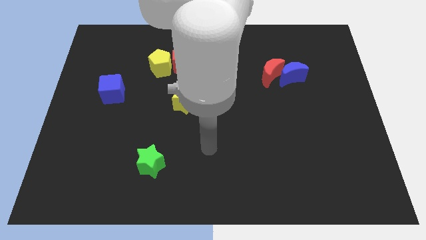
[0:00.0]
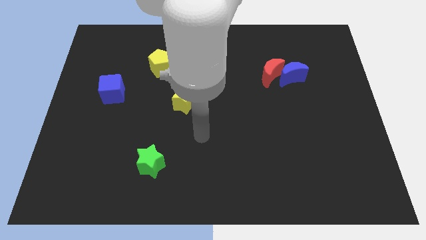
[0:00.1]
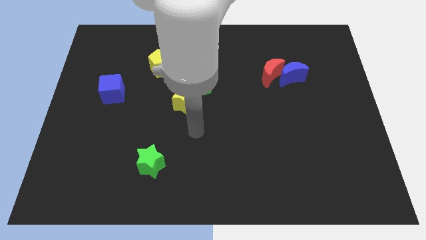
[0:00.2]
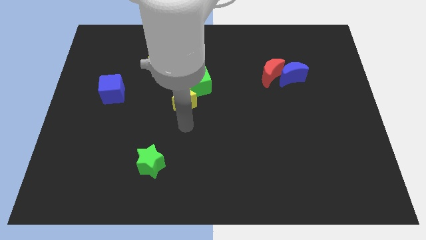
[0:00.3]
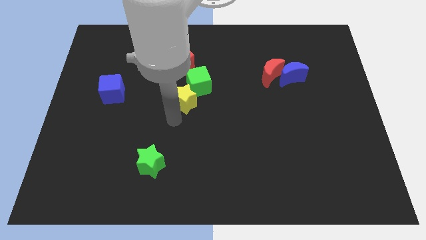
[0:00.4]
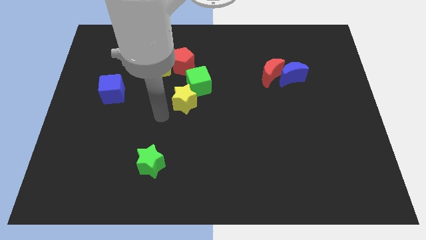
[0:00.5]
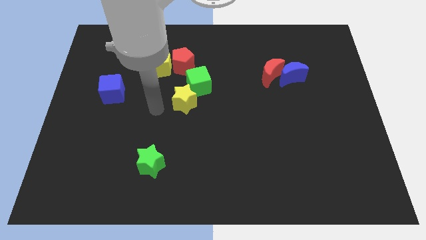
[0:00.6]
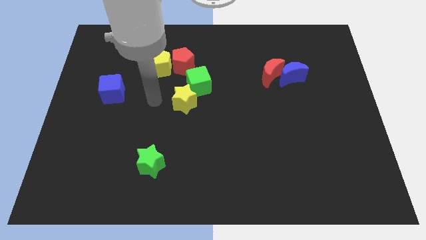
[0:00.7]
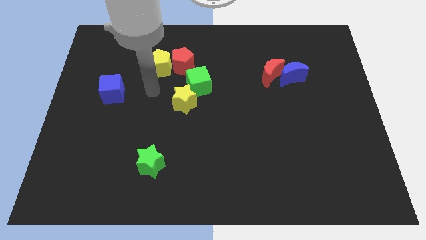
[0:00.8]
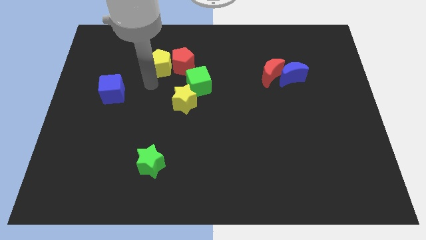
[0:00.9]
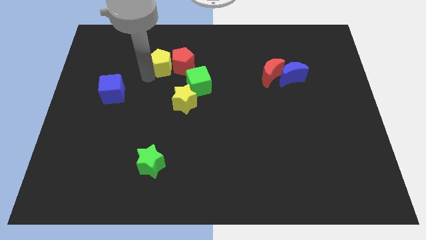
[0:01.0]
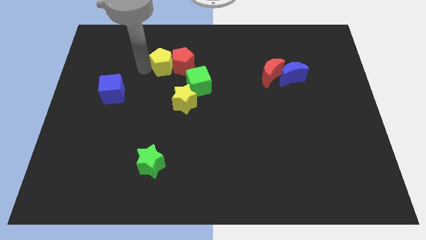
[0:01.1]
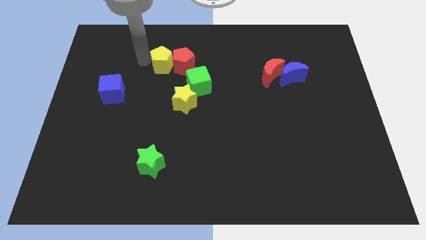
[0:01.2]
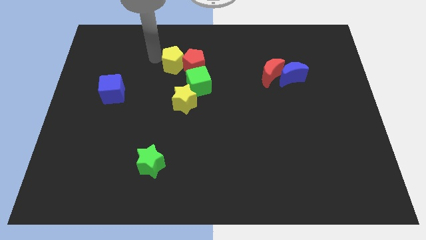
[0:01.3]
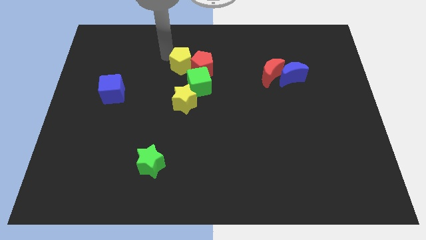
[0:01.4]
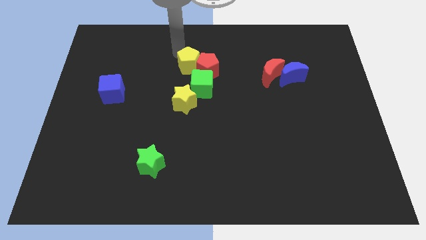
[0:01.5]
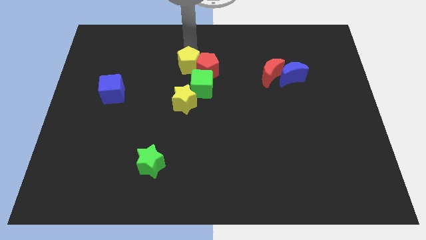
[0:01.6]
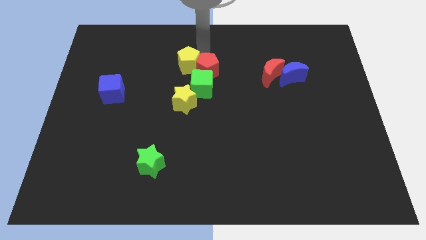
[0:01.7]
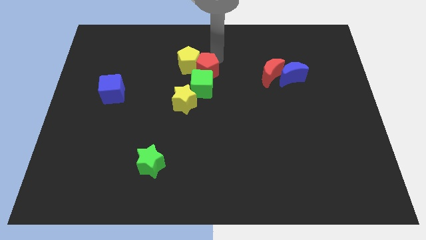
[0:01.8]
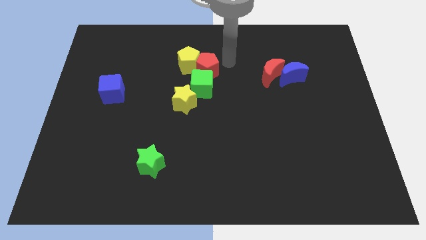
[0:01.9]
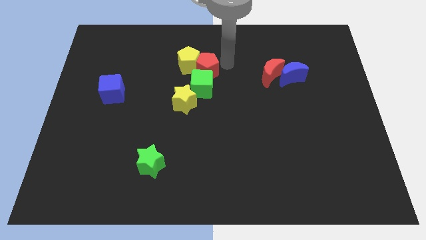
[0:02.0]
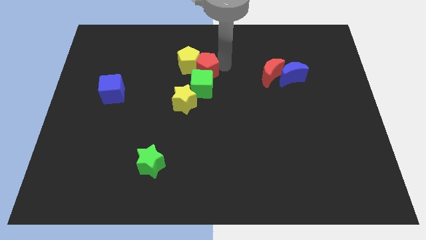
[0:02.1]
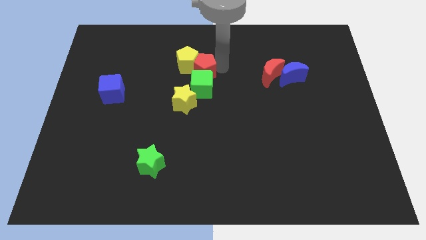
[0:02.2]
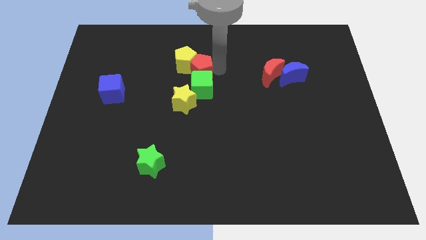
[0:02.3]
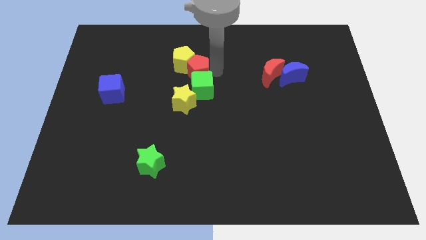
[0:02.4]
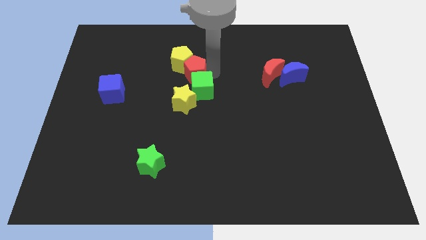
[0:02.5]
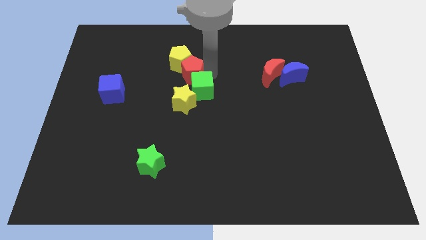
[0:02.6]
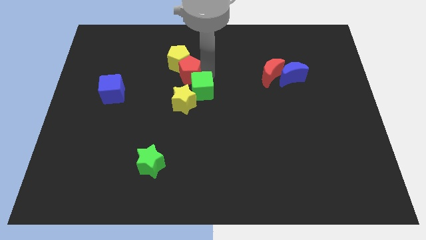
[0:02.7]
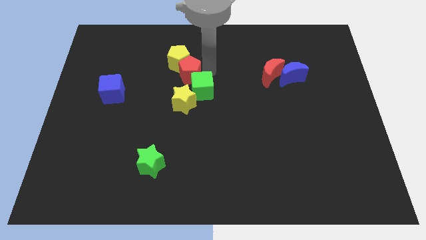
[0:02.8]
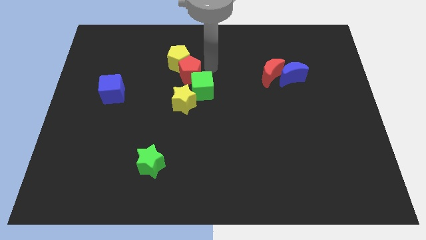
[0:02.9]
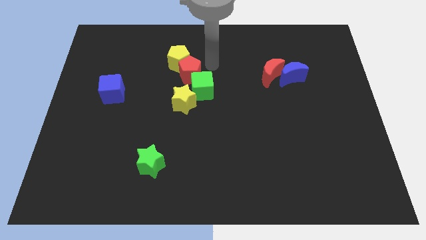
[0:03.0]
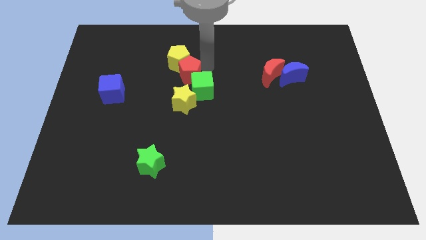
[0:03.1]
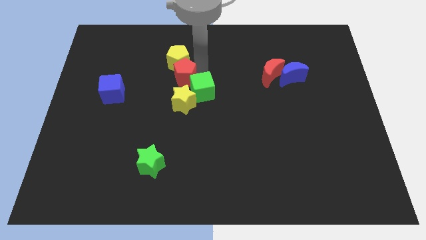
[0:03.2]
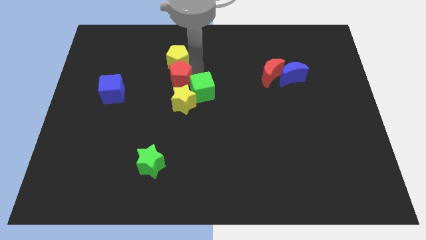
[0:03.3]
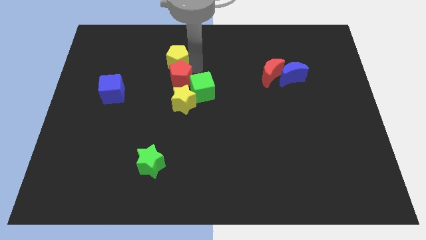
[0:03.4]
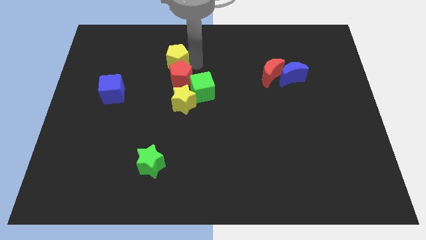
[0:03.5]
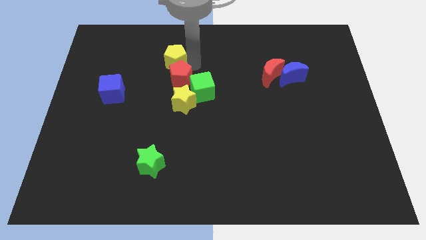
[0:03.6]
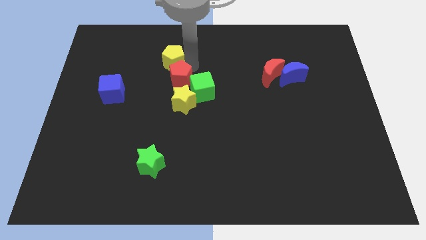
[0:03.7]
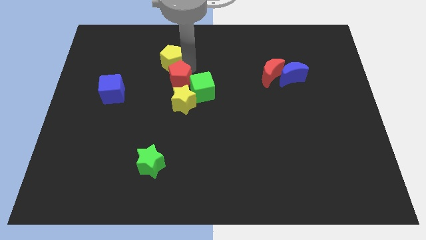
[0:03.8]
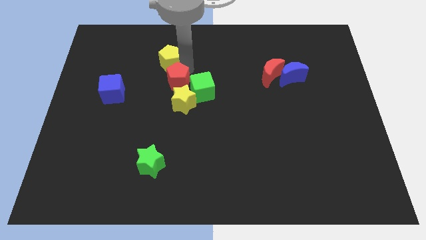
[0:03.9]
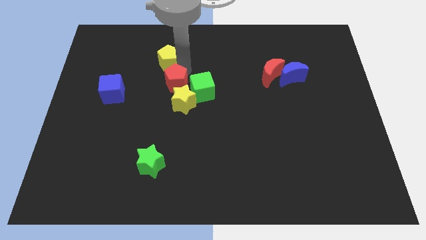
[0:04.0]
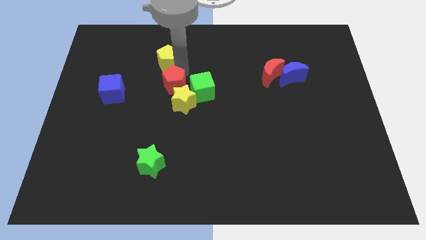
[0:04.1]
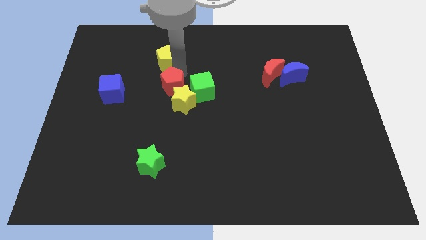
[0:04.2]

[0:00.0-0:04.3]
slide the red pentagon downwards somewhat

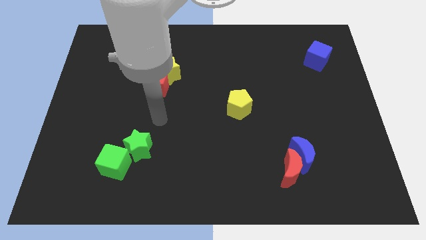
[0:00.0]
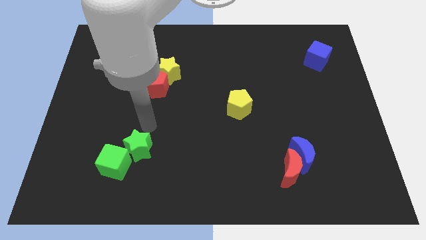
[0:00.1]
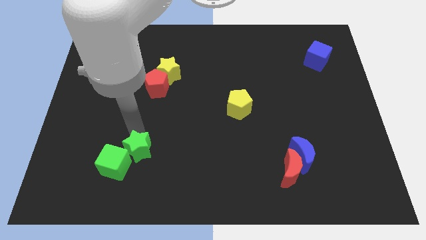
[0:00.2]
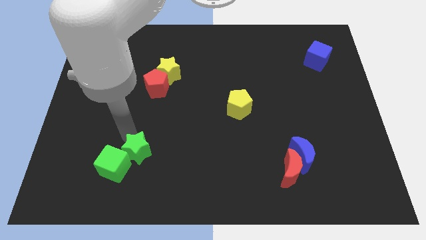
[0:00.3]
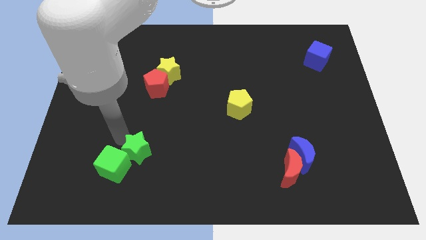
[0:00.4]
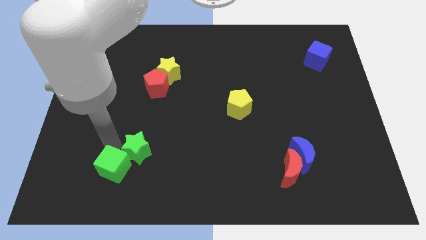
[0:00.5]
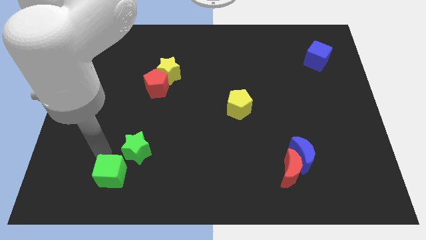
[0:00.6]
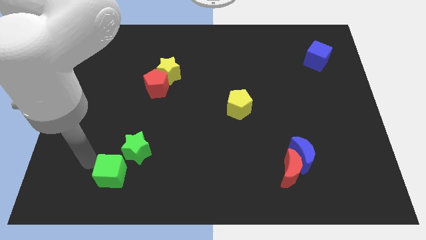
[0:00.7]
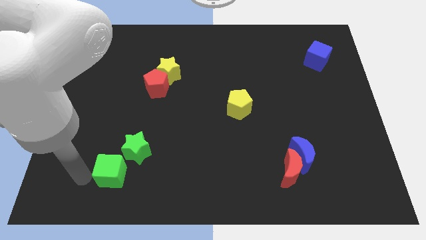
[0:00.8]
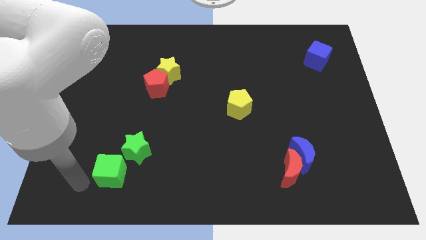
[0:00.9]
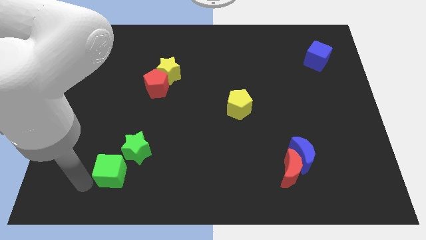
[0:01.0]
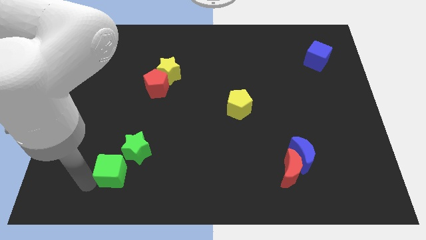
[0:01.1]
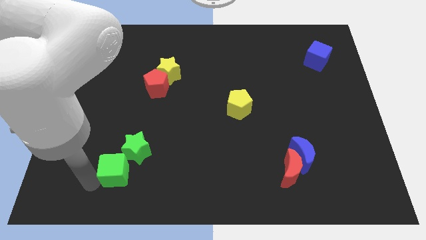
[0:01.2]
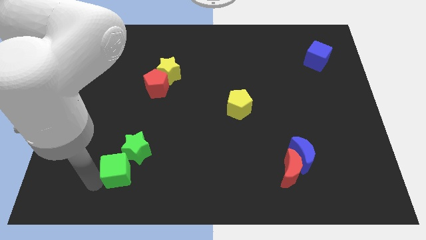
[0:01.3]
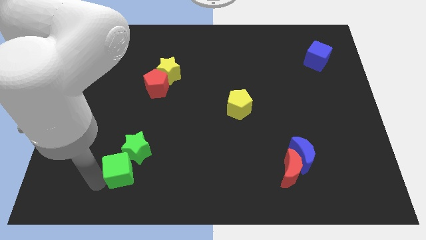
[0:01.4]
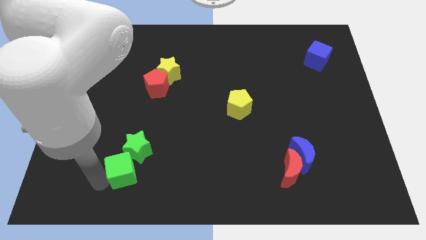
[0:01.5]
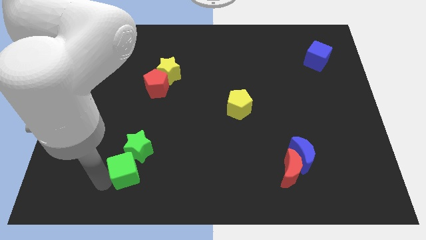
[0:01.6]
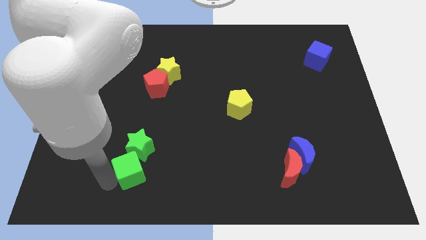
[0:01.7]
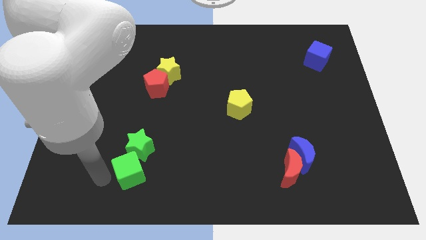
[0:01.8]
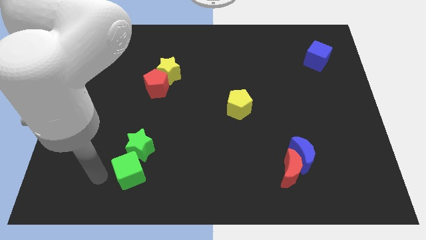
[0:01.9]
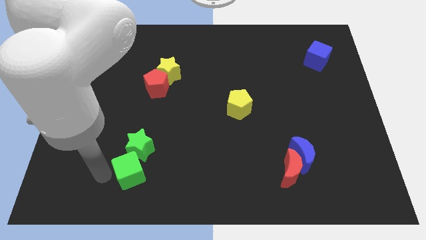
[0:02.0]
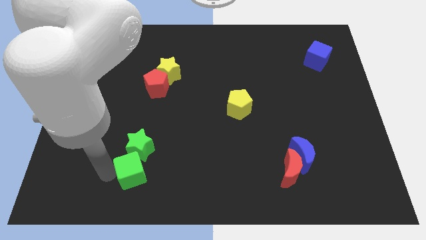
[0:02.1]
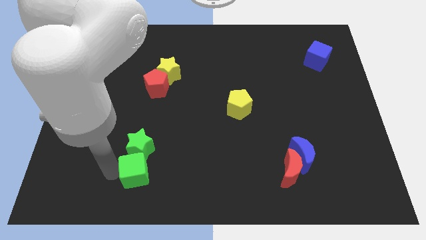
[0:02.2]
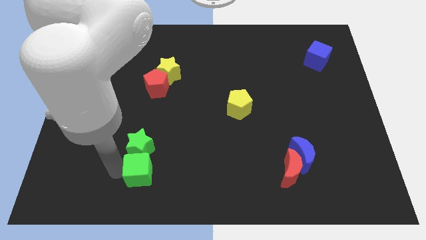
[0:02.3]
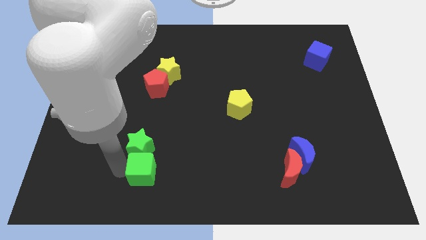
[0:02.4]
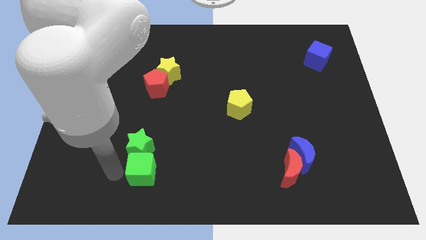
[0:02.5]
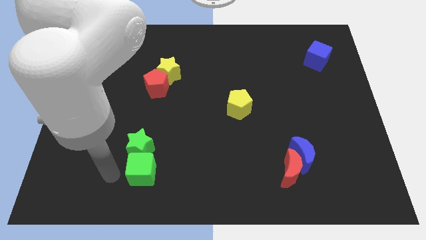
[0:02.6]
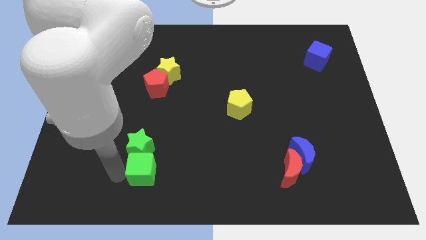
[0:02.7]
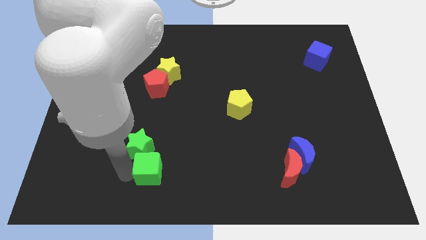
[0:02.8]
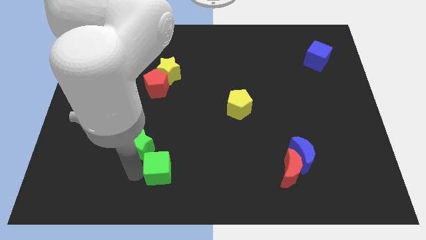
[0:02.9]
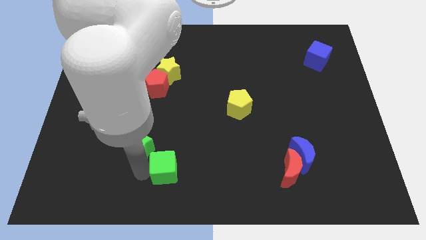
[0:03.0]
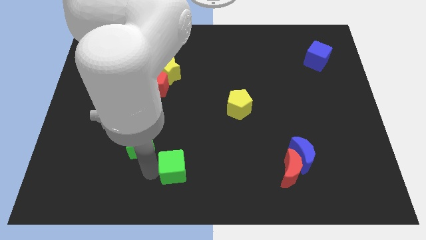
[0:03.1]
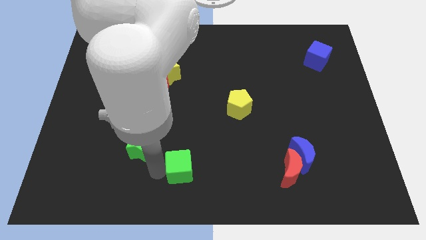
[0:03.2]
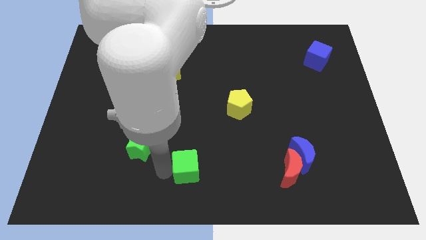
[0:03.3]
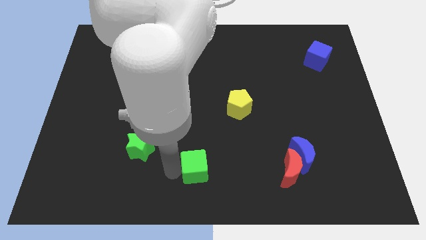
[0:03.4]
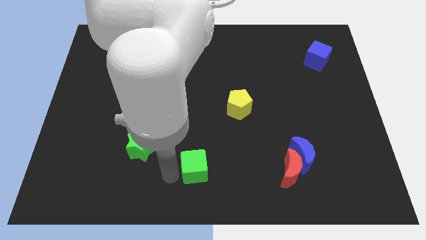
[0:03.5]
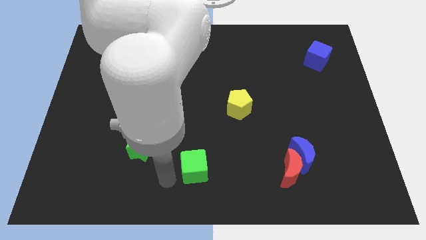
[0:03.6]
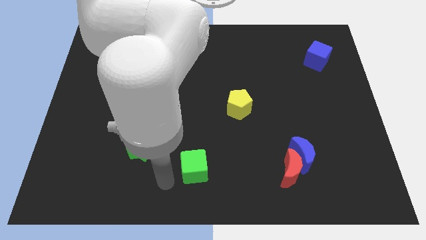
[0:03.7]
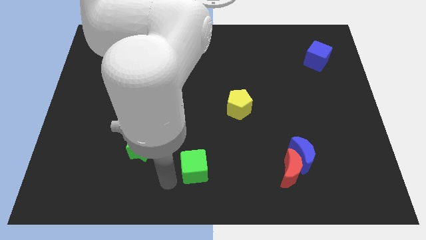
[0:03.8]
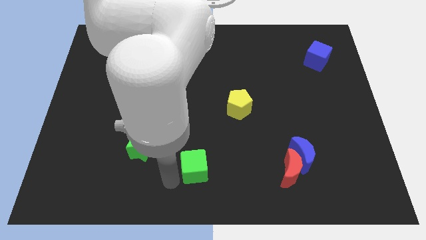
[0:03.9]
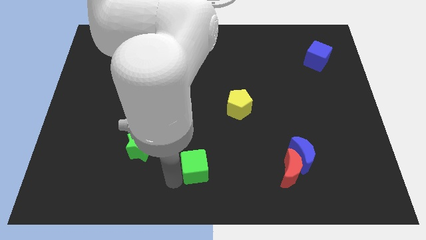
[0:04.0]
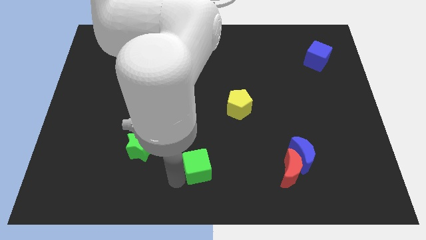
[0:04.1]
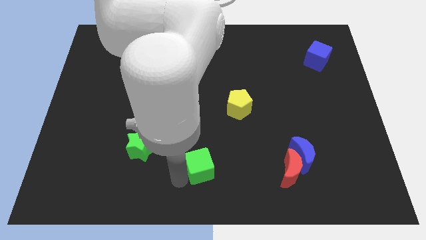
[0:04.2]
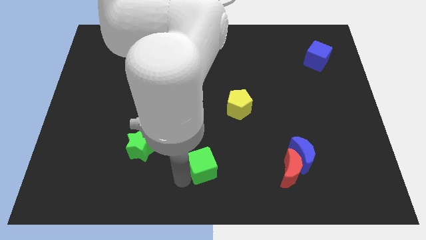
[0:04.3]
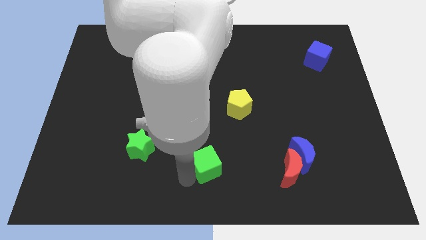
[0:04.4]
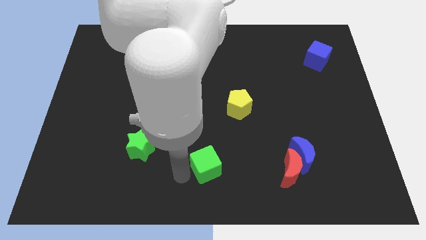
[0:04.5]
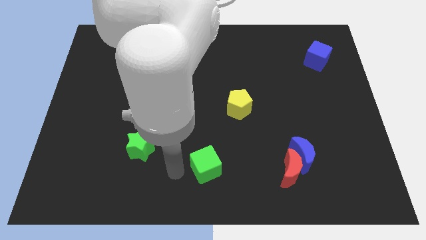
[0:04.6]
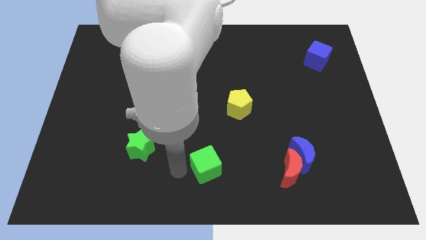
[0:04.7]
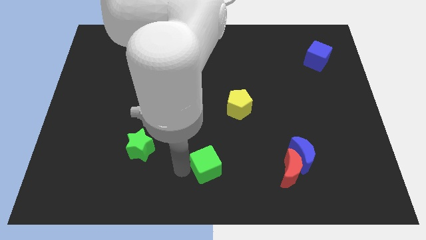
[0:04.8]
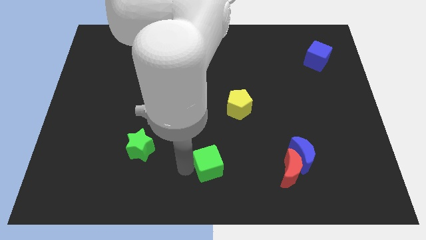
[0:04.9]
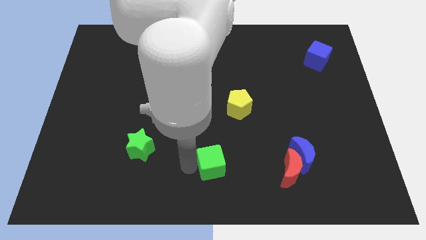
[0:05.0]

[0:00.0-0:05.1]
push the green cube to the right
